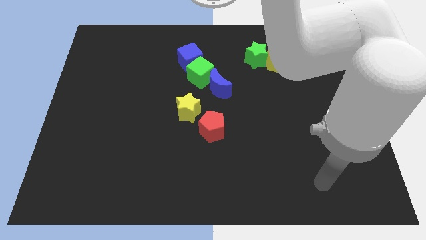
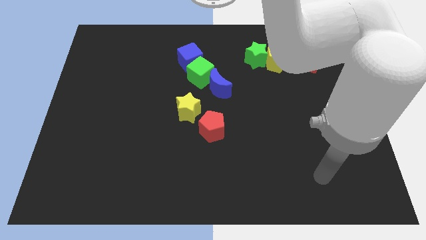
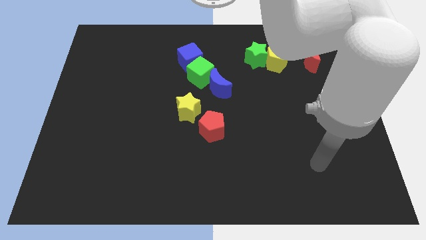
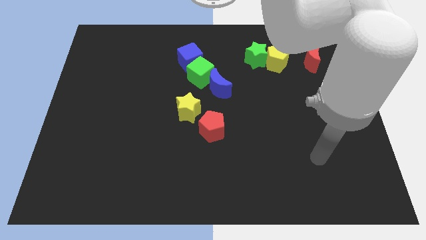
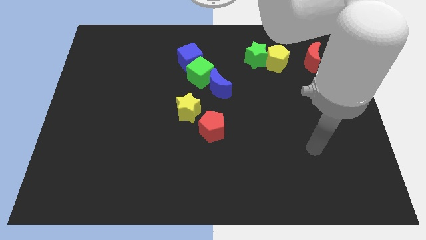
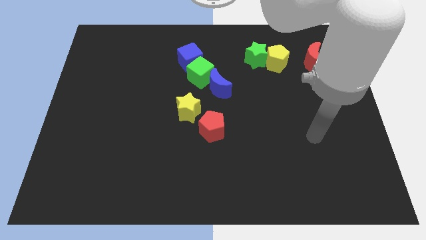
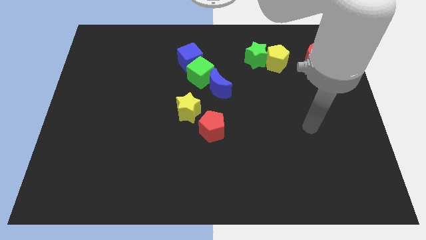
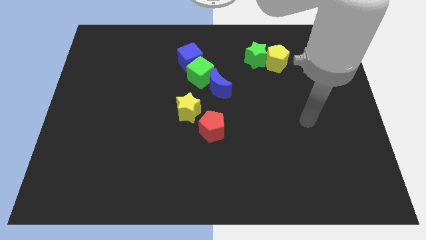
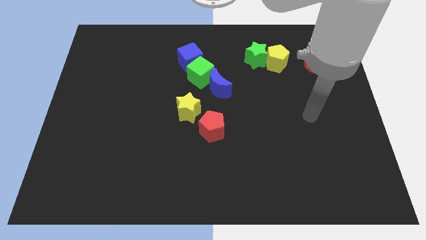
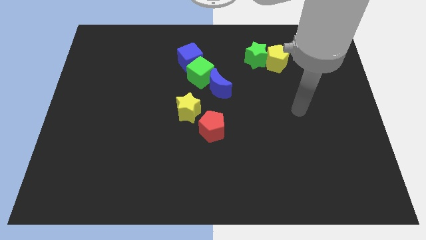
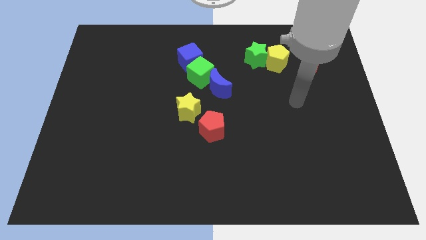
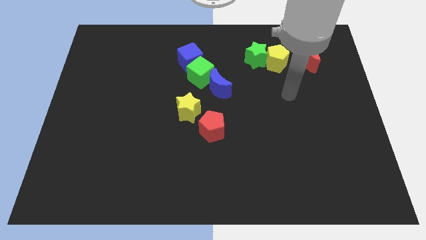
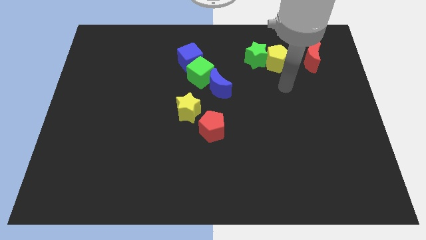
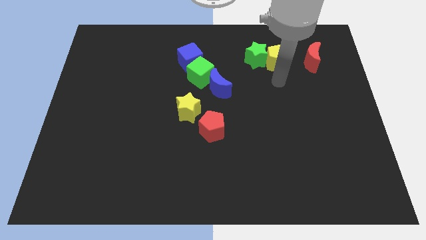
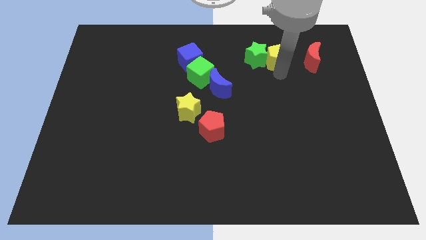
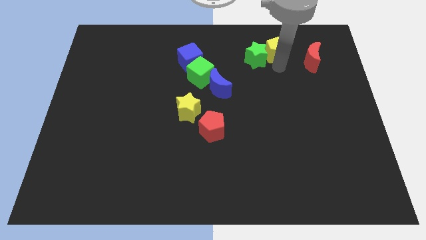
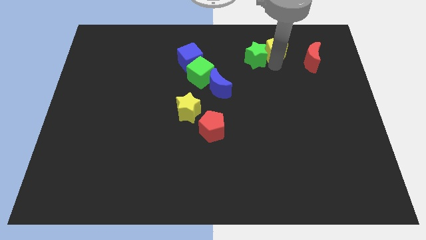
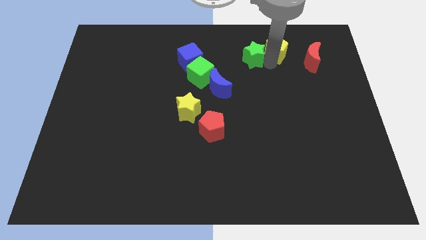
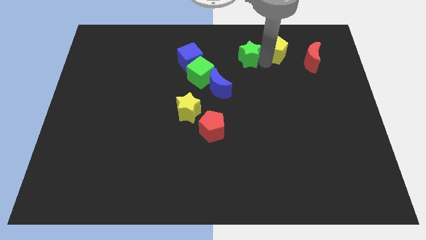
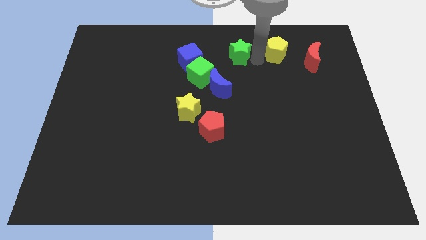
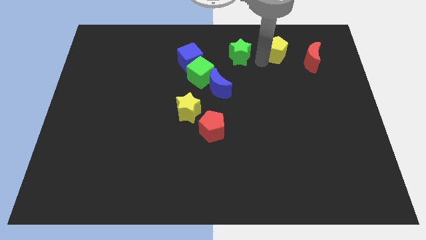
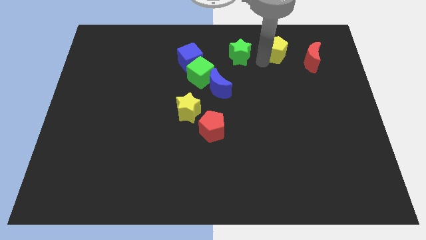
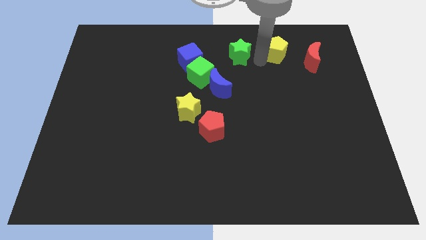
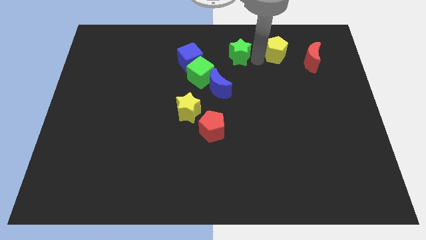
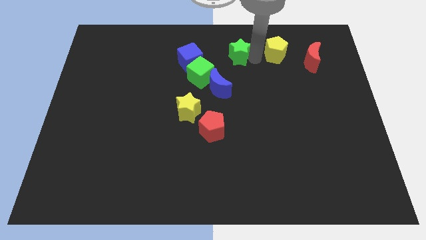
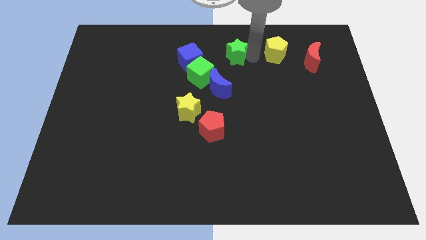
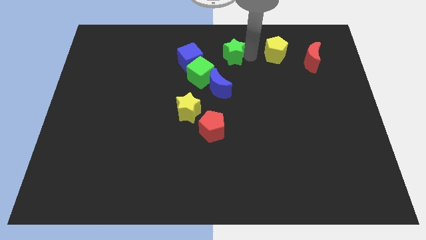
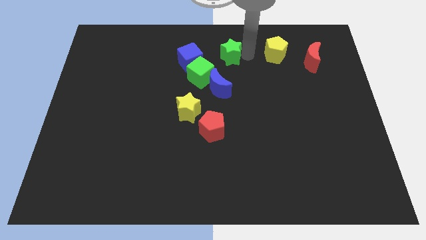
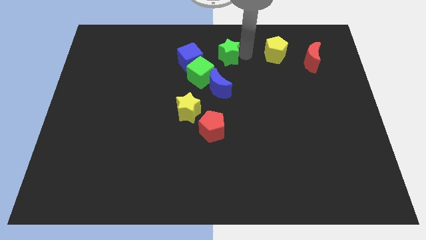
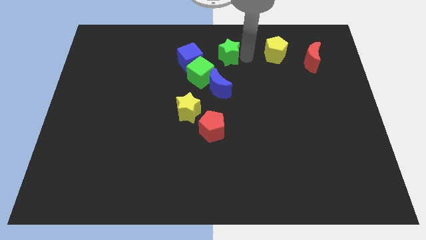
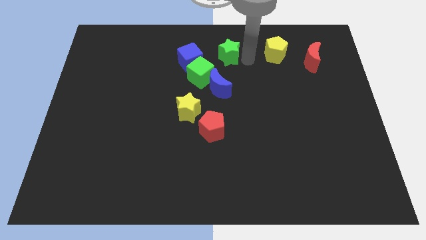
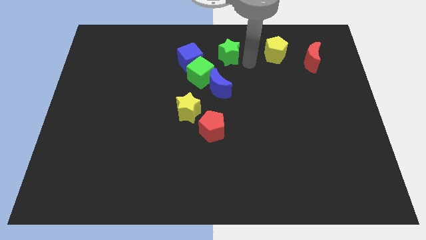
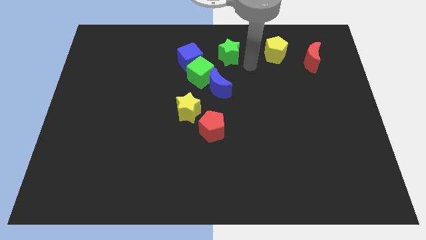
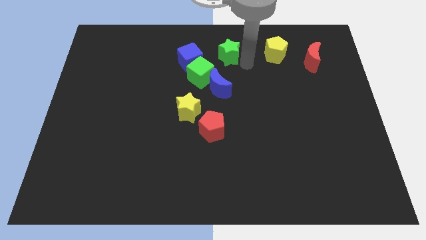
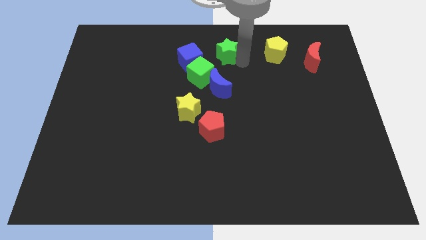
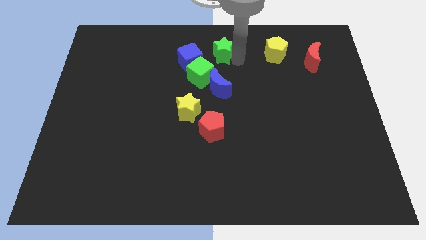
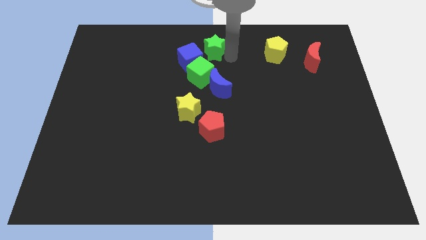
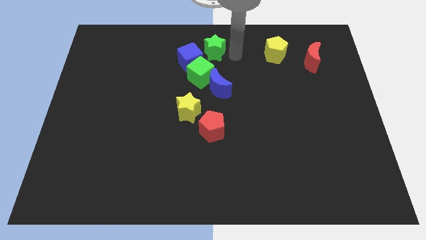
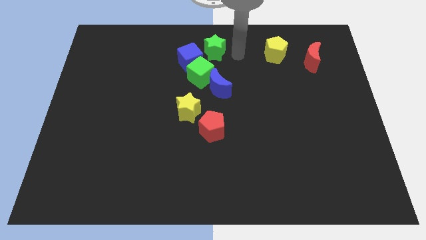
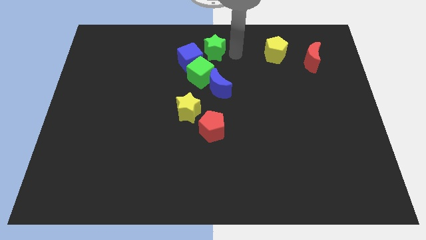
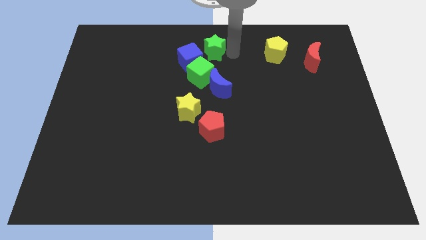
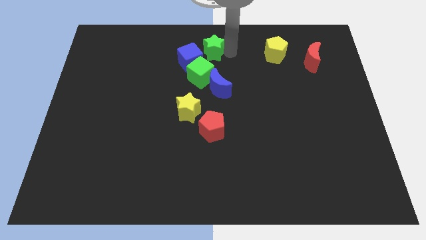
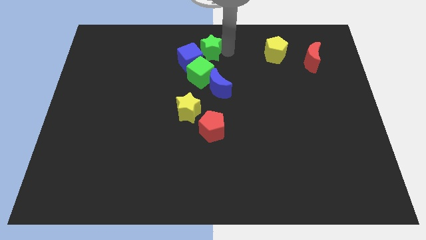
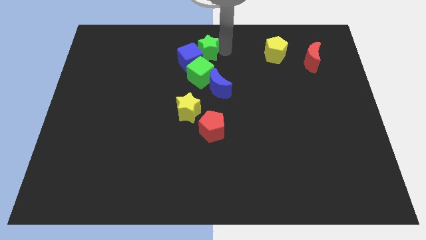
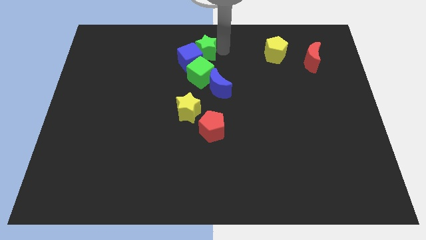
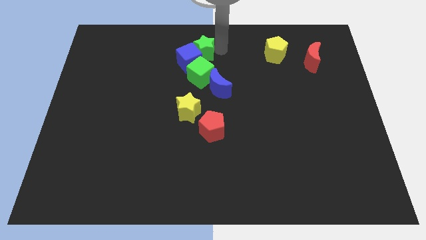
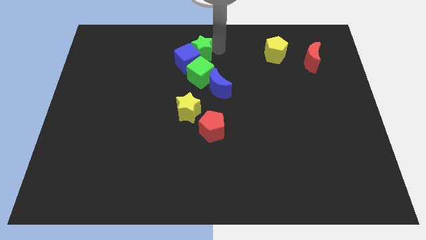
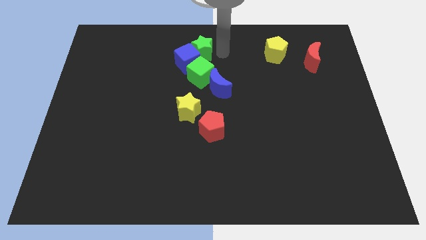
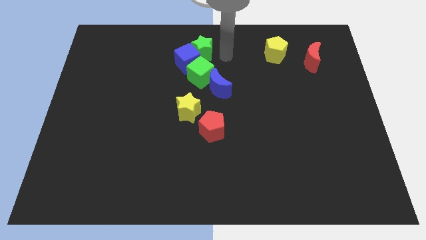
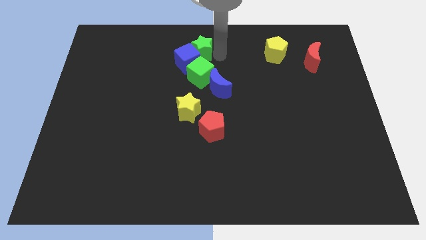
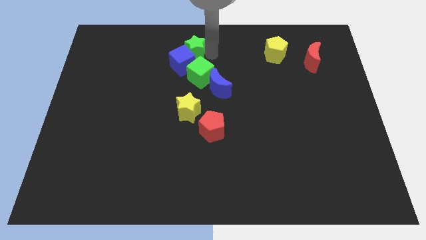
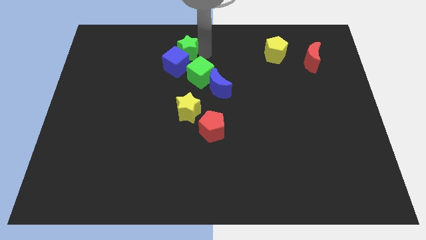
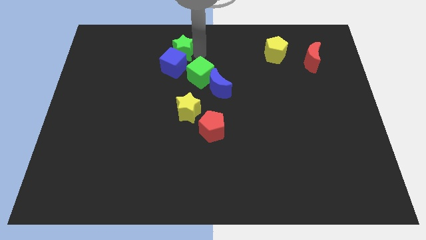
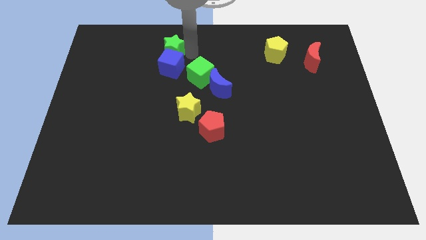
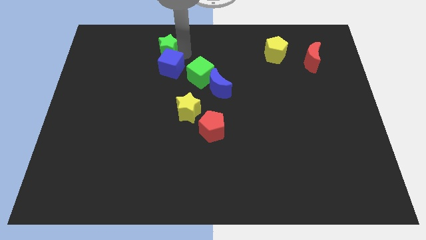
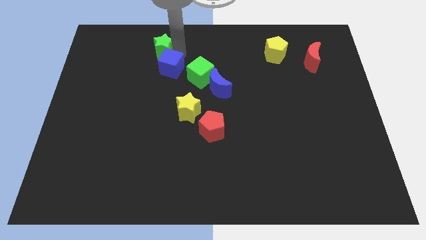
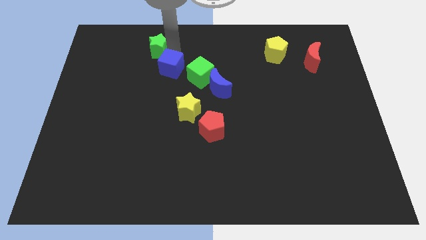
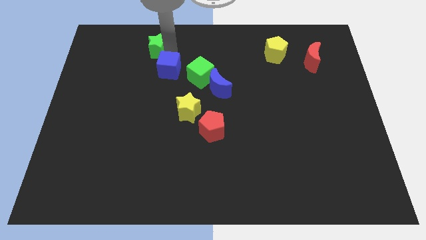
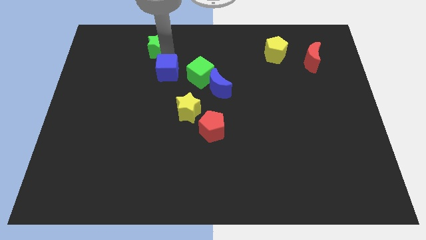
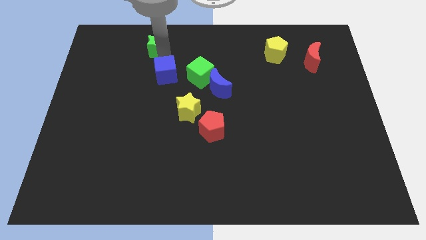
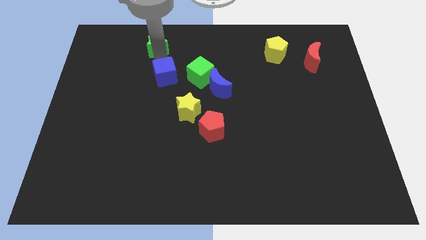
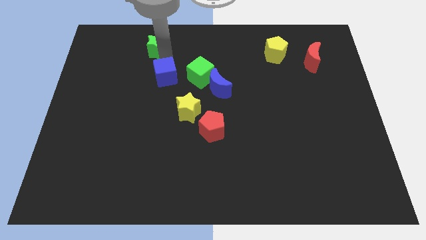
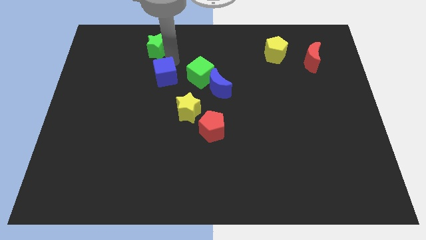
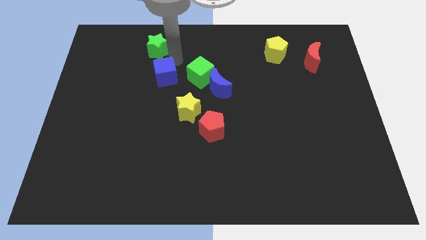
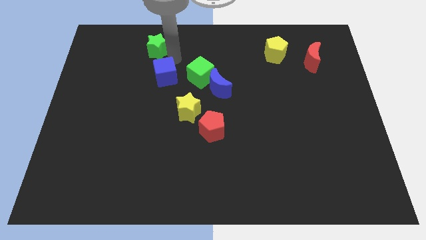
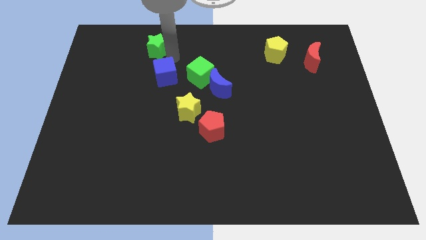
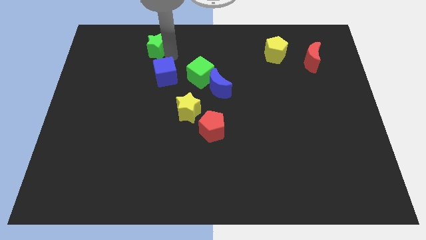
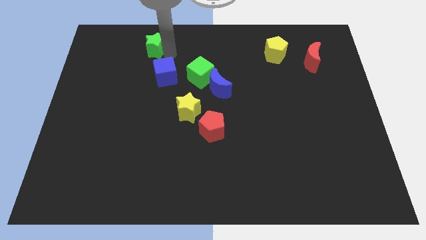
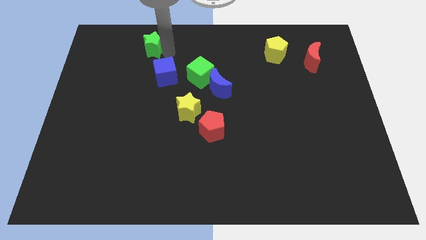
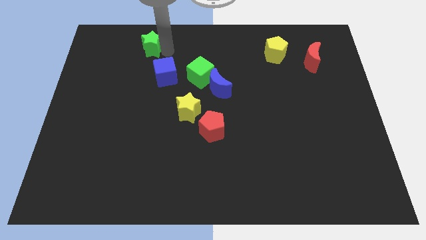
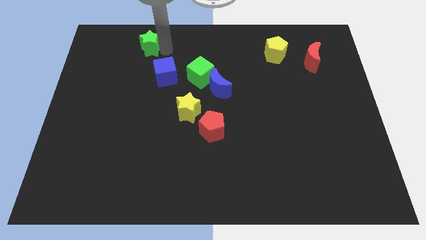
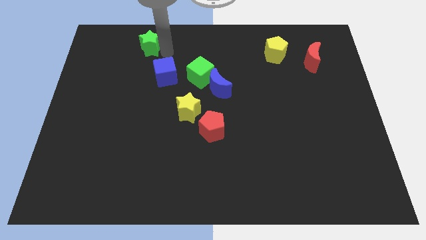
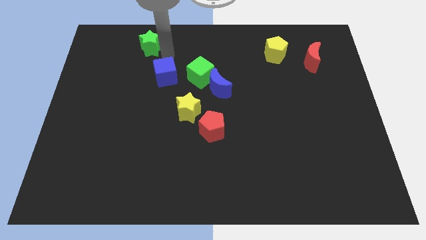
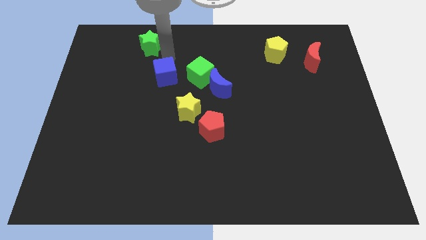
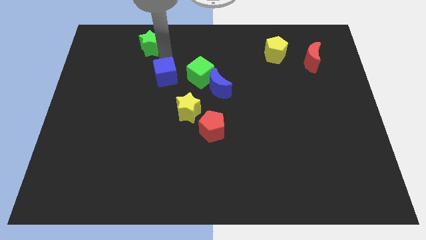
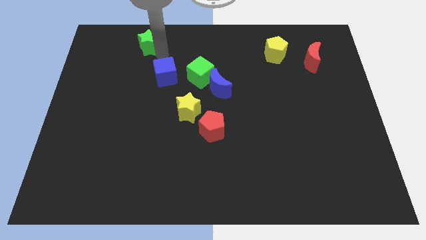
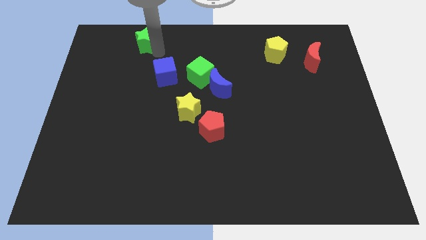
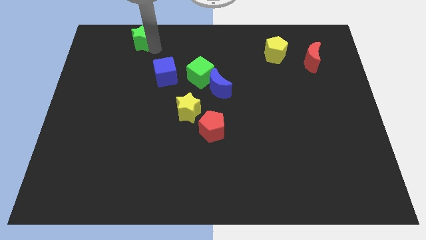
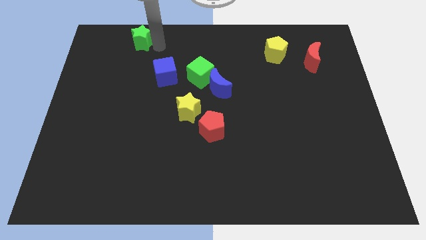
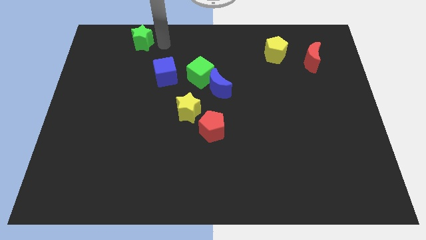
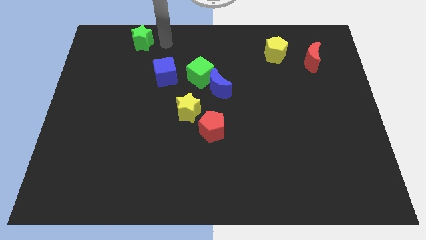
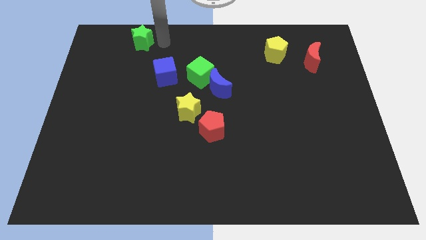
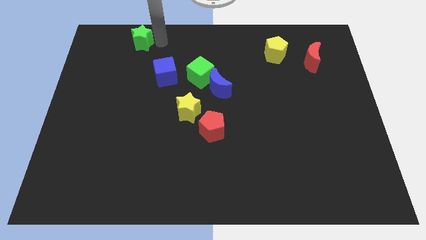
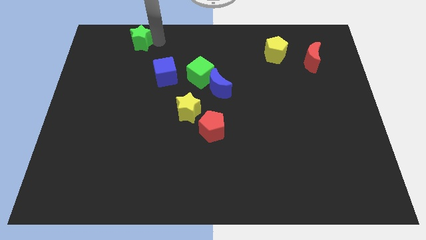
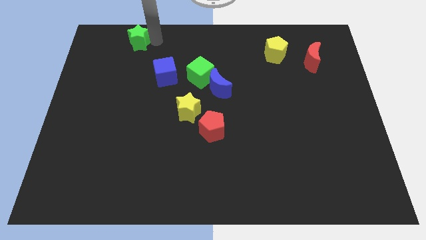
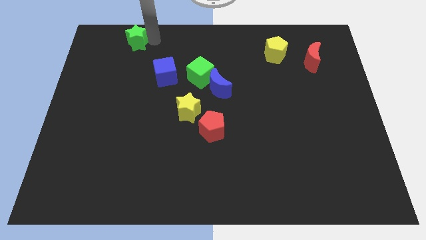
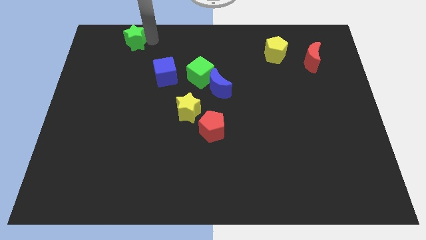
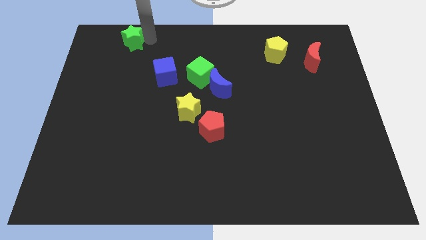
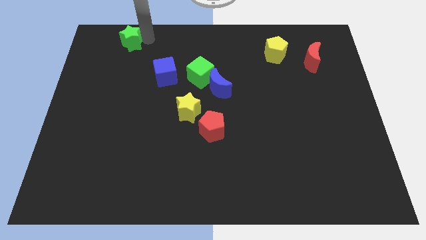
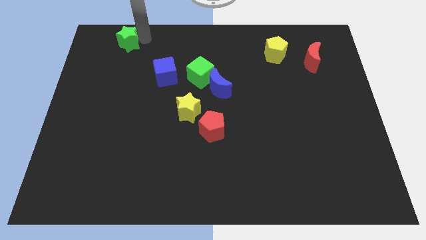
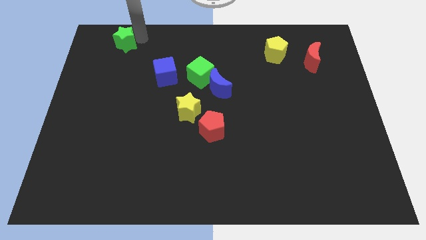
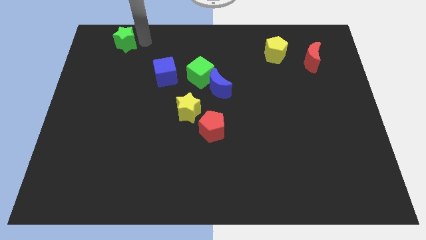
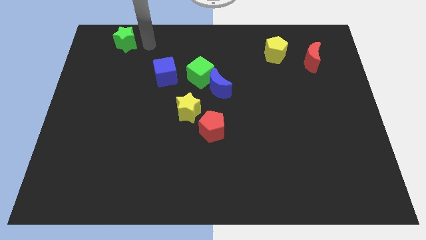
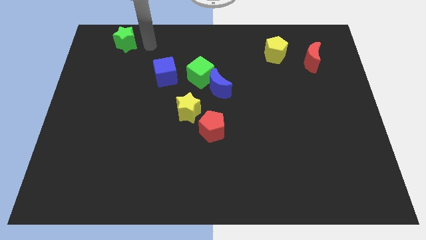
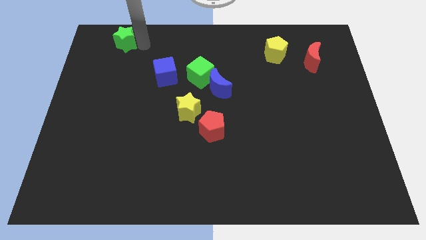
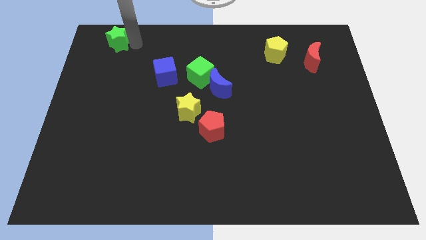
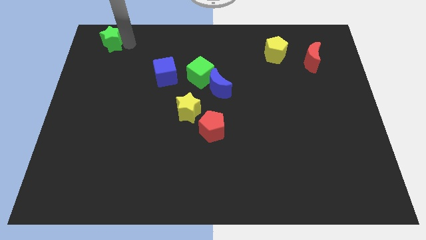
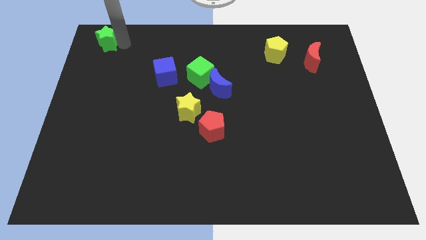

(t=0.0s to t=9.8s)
slide the green star to the top left corner
